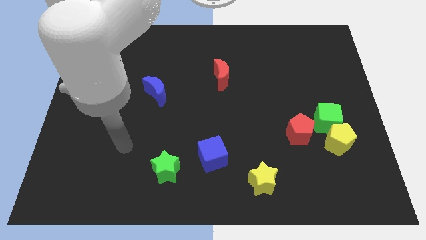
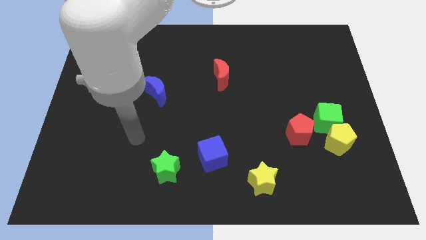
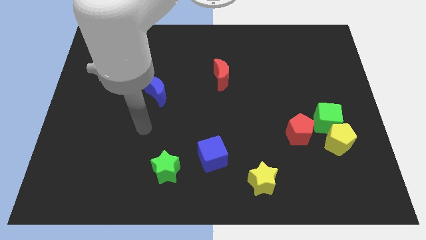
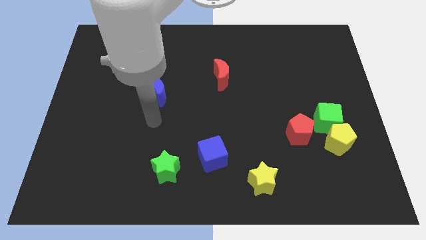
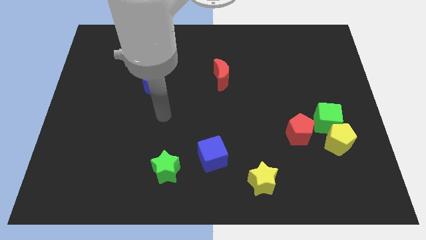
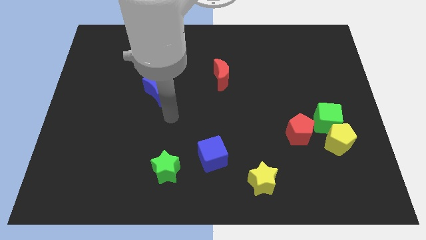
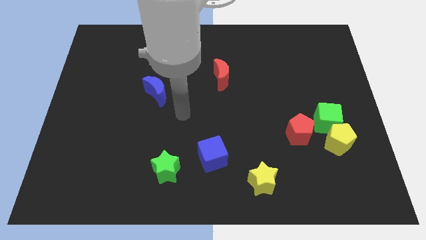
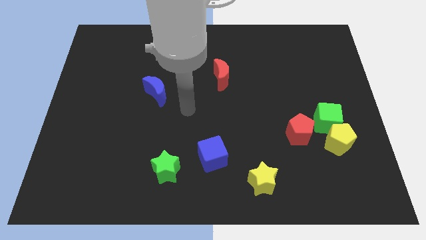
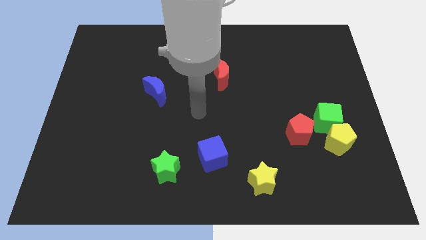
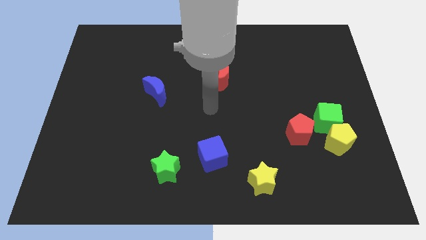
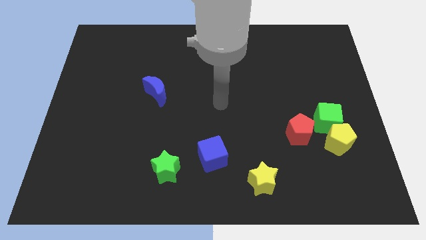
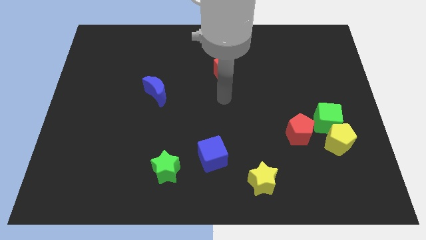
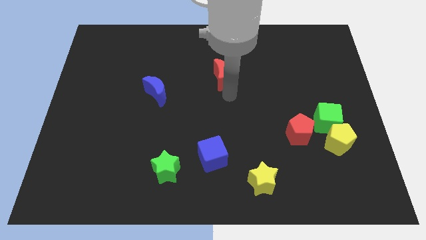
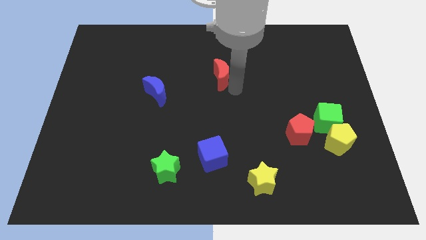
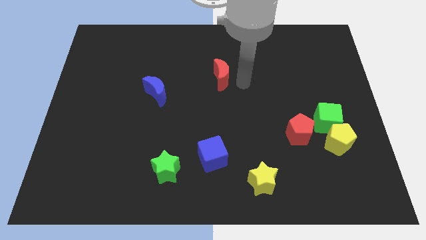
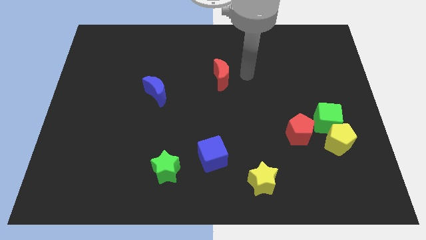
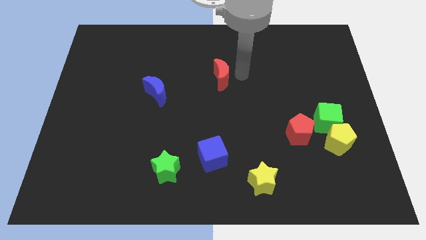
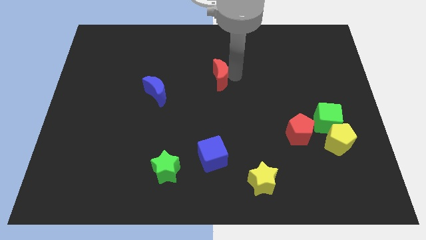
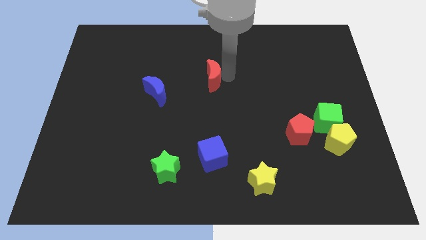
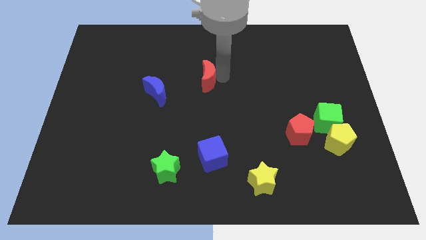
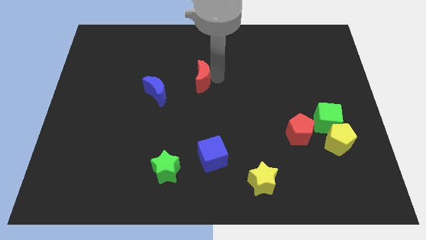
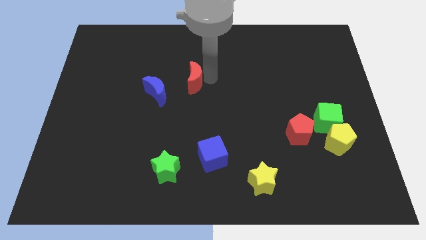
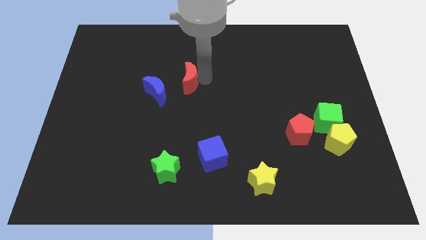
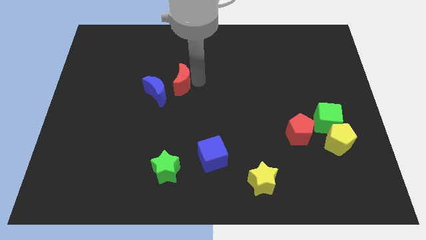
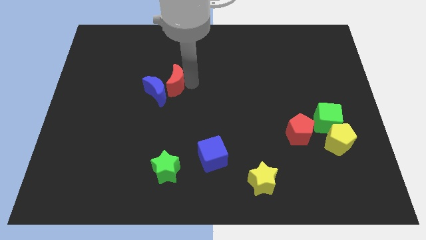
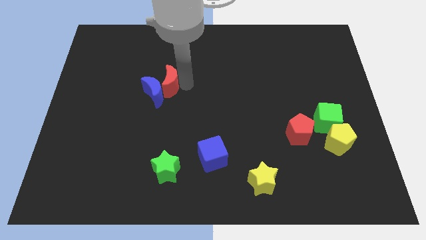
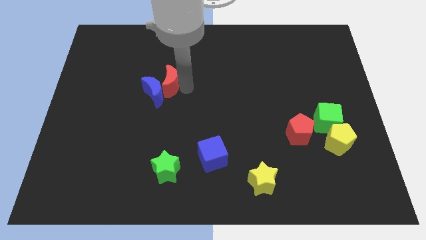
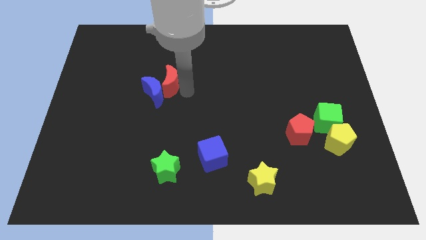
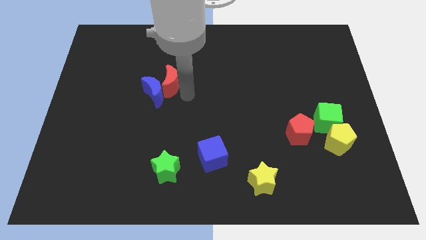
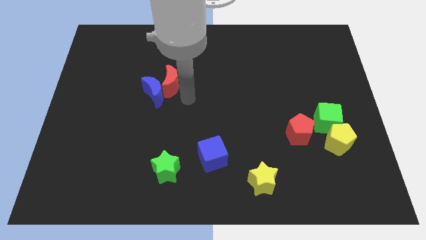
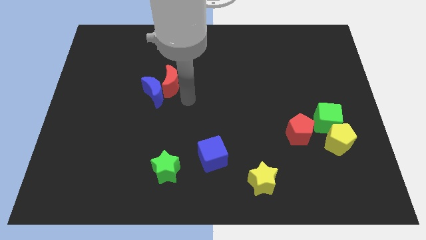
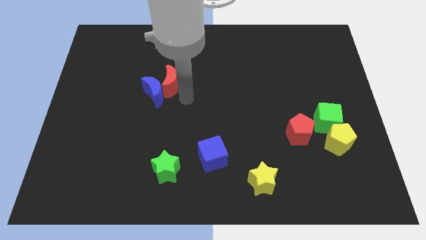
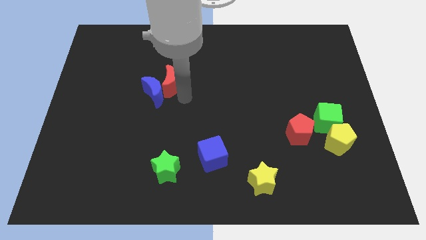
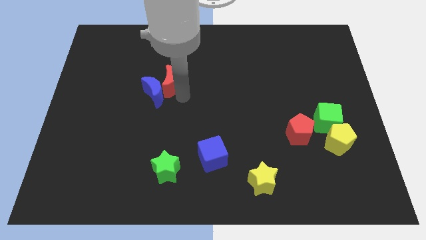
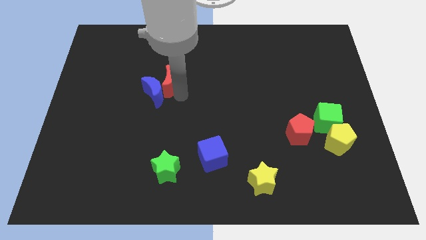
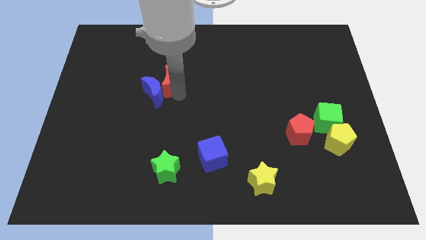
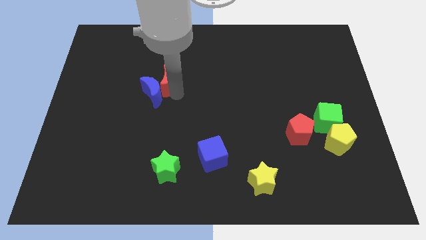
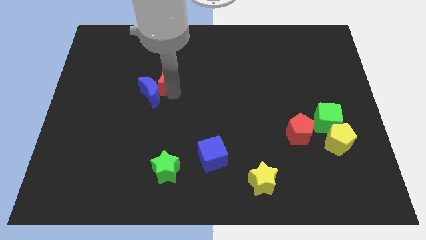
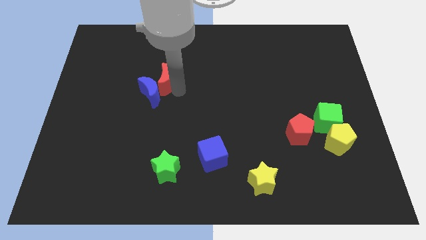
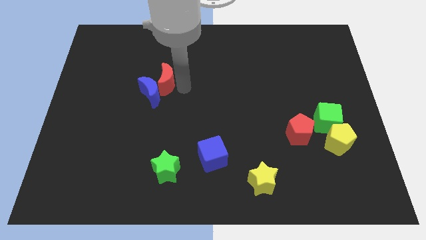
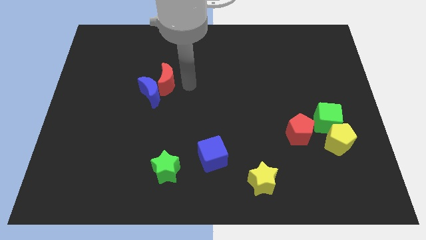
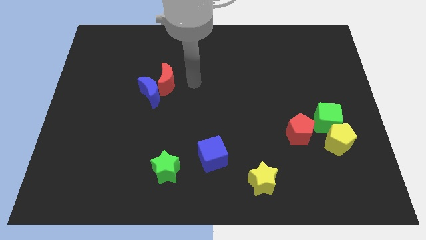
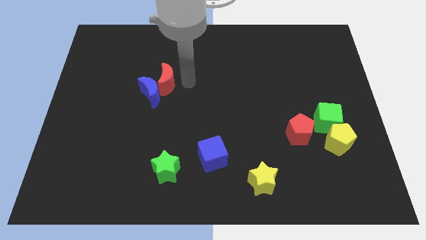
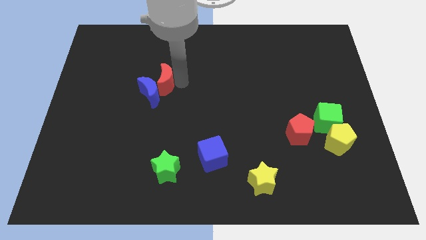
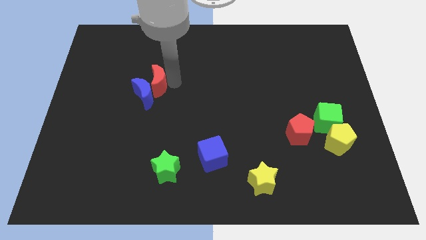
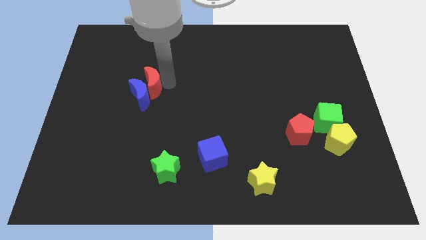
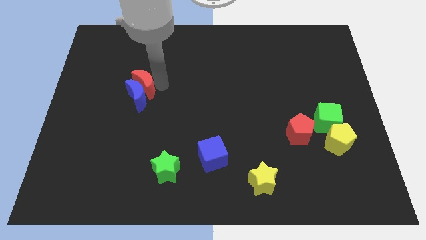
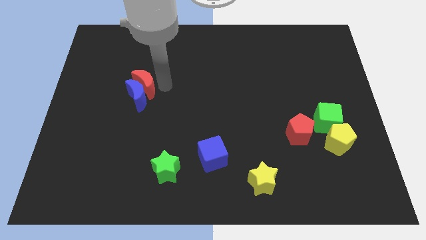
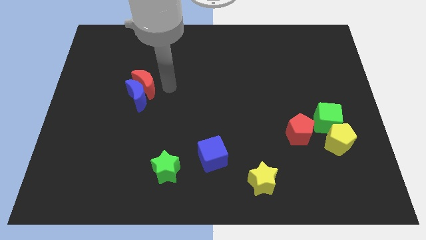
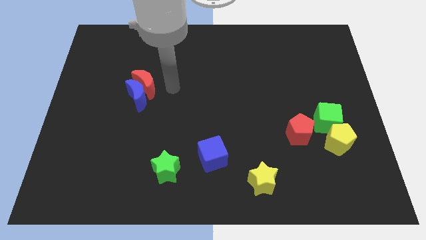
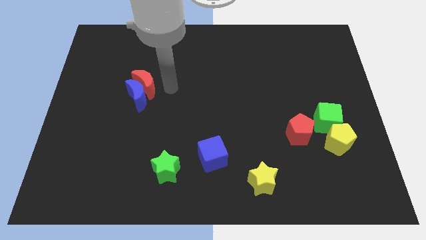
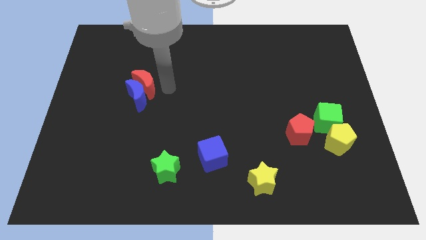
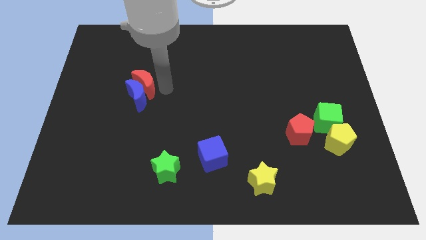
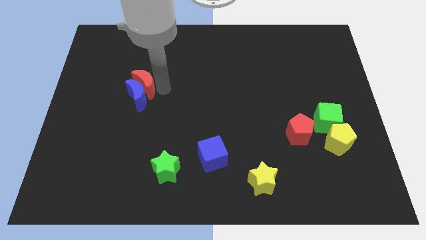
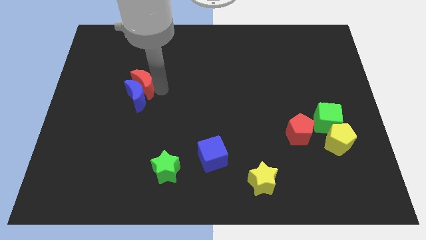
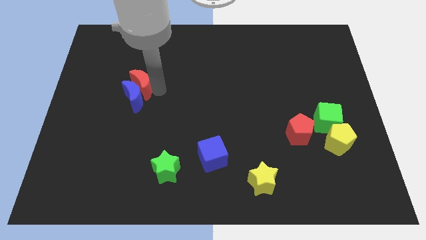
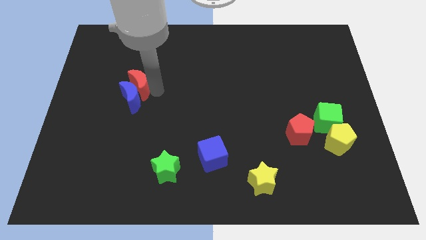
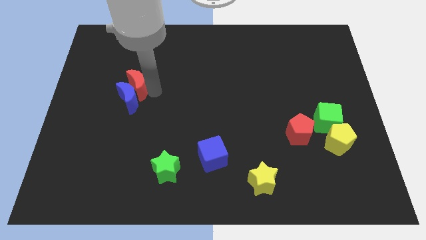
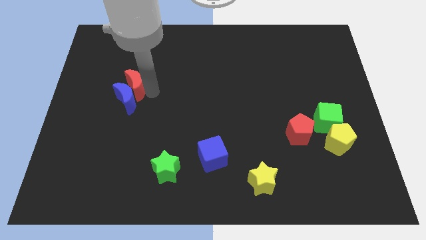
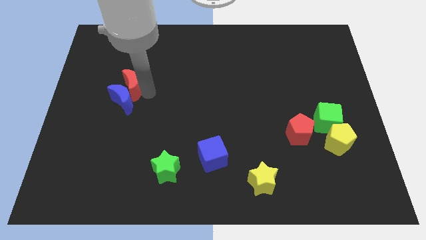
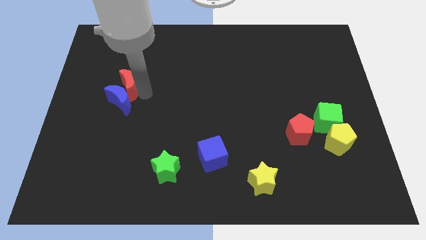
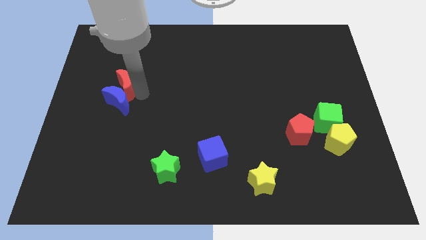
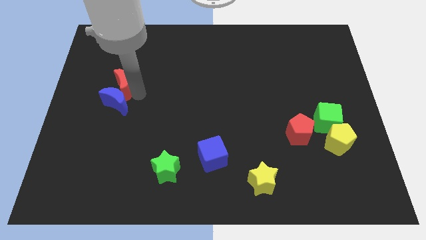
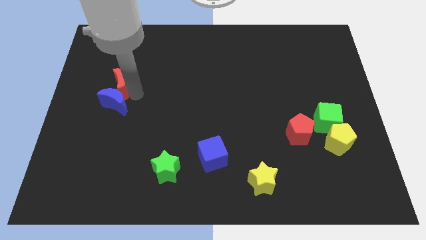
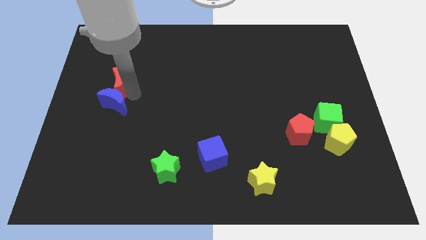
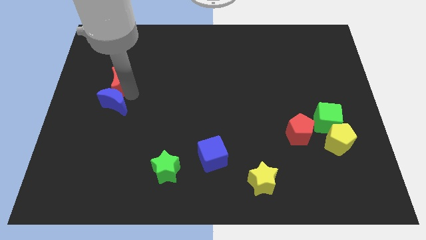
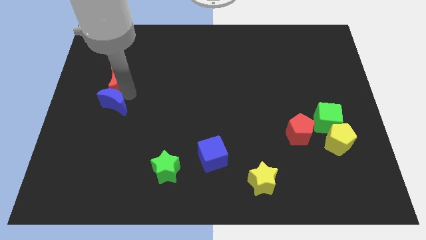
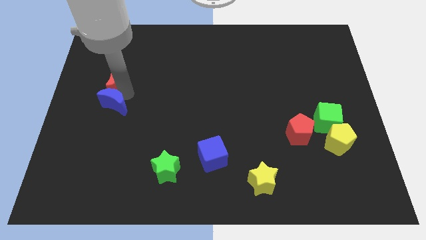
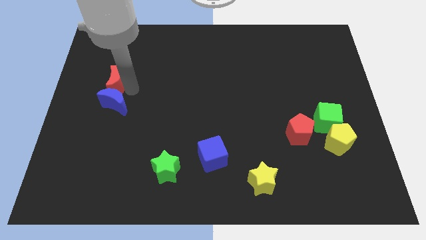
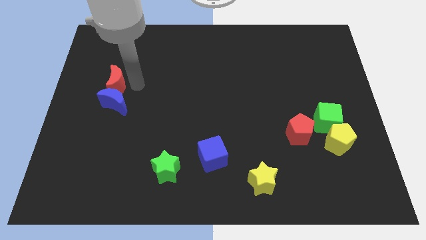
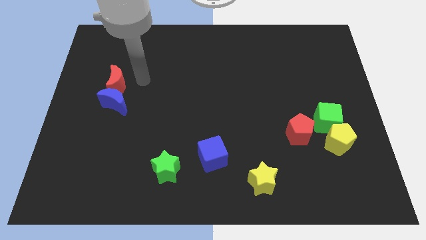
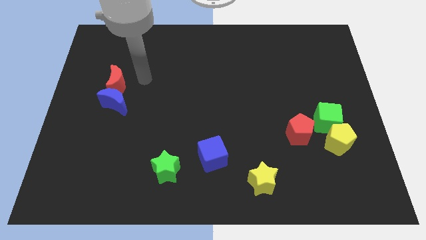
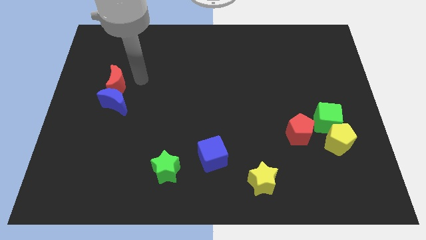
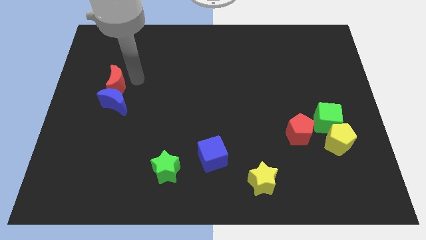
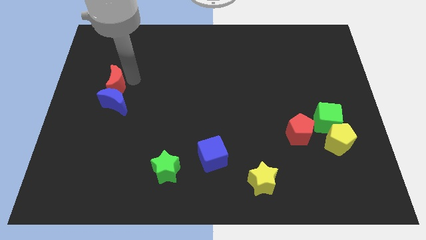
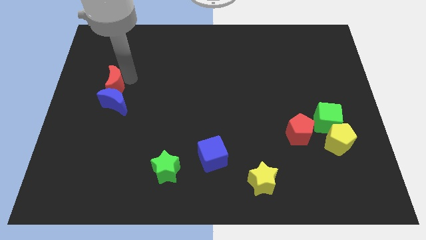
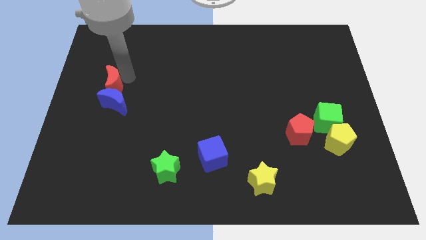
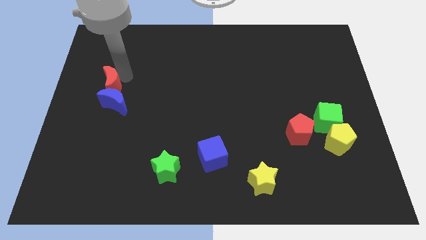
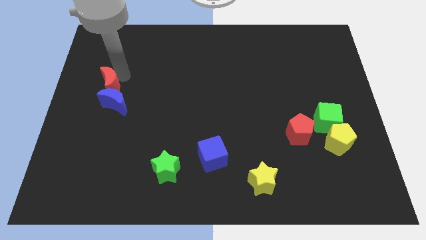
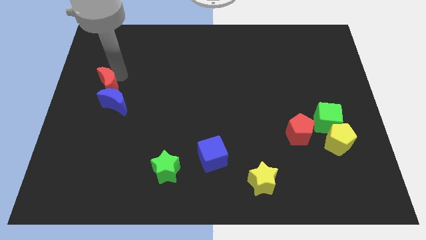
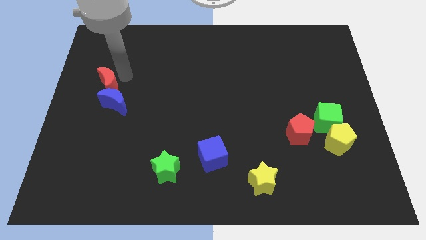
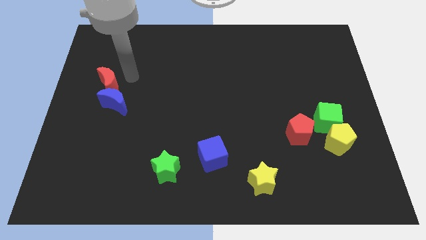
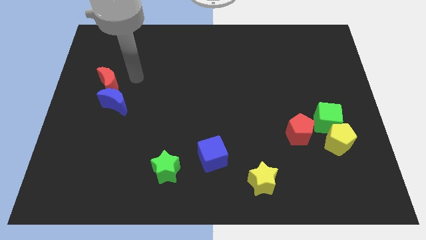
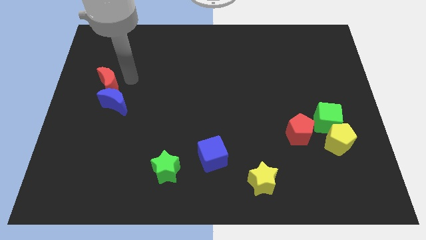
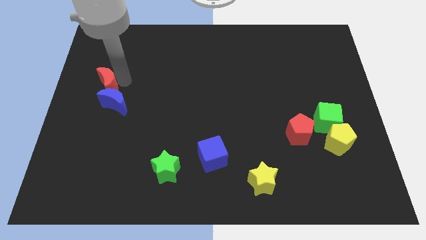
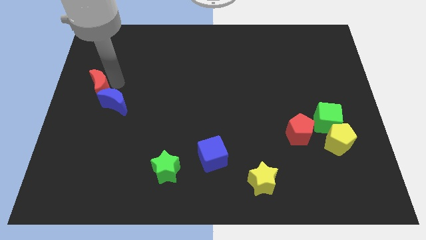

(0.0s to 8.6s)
slide the red moon to the left side of the board
